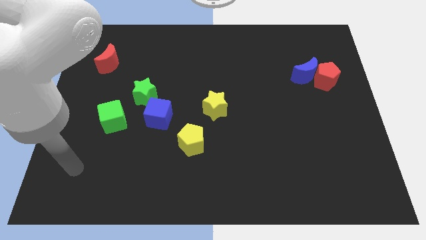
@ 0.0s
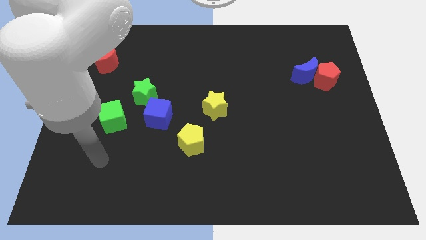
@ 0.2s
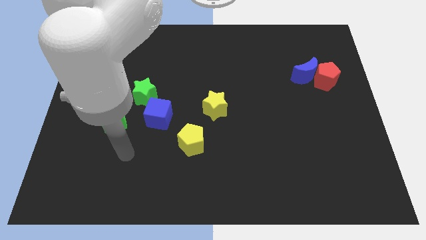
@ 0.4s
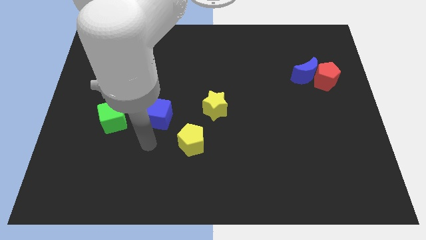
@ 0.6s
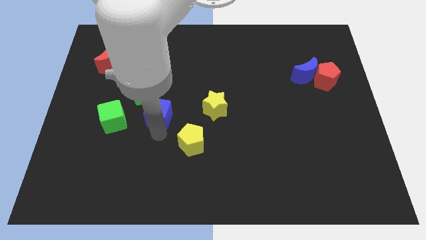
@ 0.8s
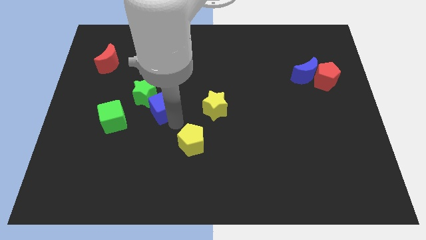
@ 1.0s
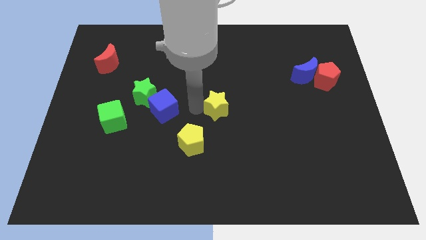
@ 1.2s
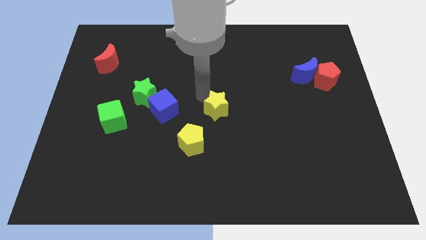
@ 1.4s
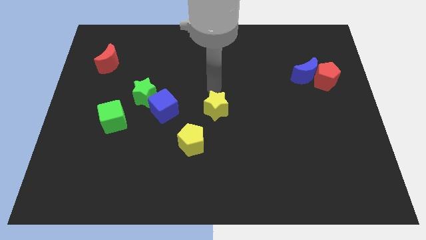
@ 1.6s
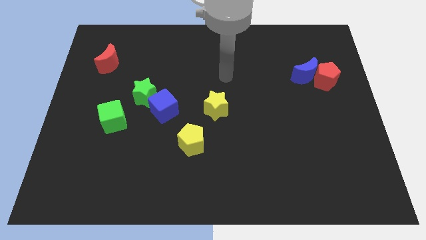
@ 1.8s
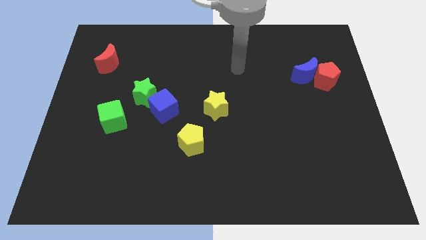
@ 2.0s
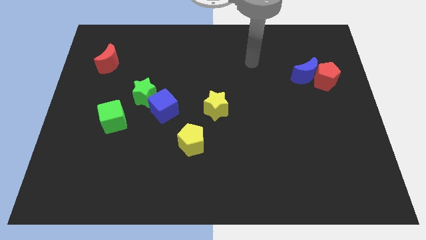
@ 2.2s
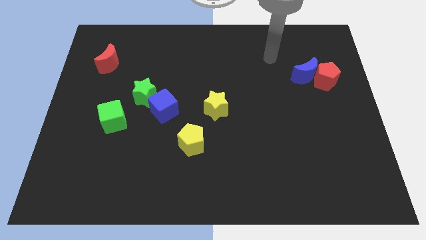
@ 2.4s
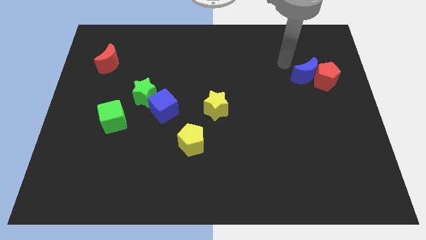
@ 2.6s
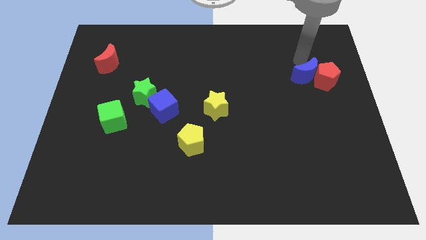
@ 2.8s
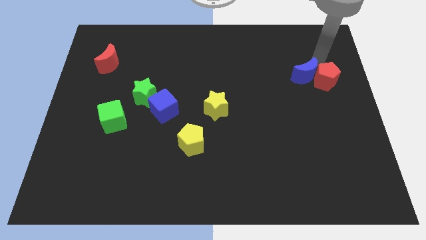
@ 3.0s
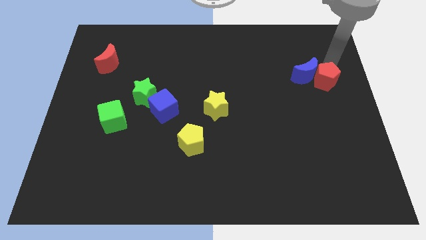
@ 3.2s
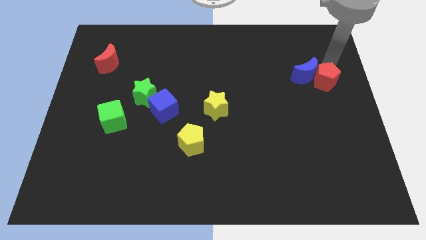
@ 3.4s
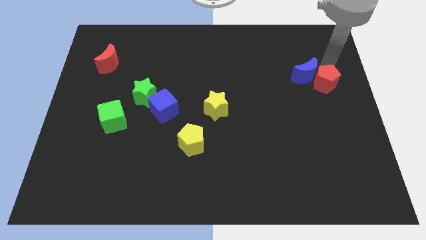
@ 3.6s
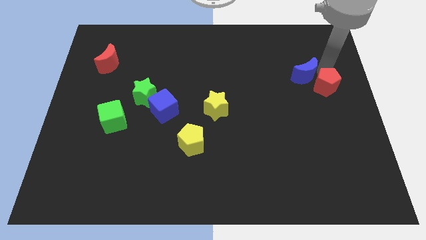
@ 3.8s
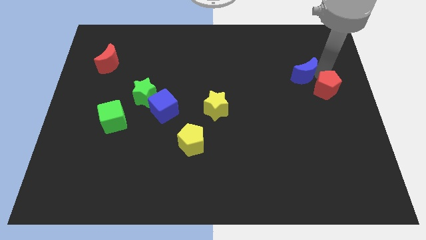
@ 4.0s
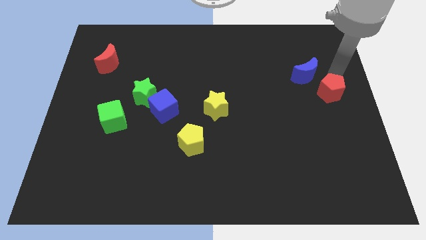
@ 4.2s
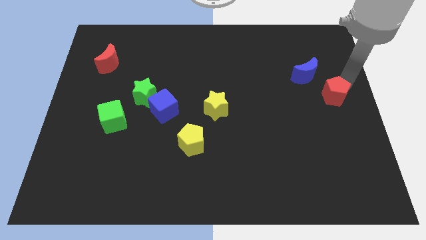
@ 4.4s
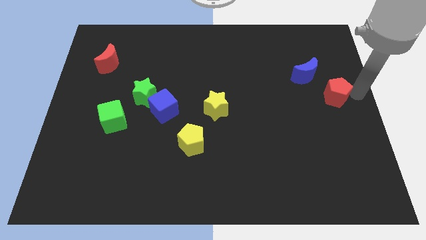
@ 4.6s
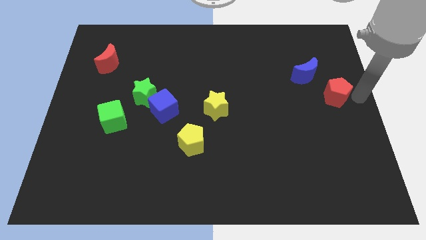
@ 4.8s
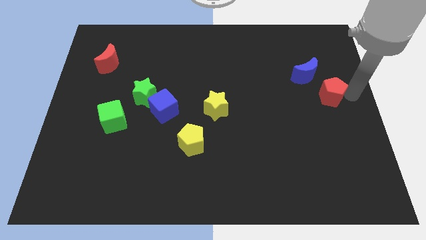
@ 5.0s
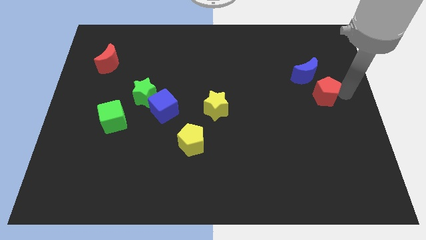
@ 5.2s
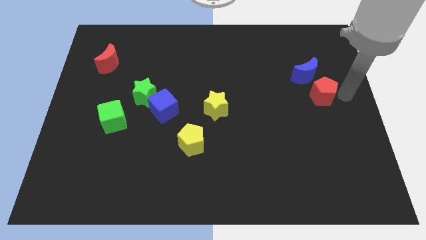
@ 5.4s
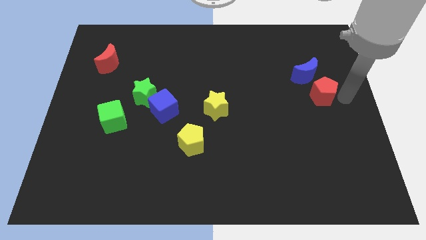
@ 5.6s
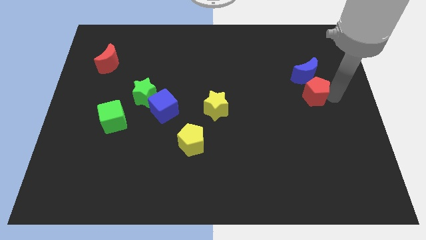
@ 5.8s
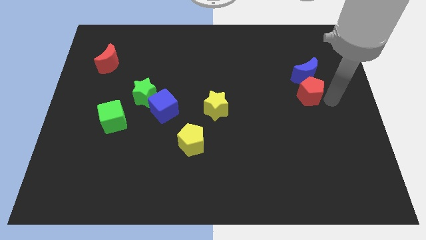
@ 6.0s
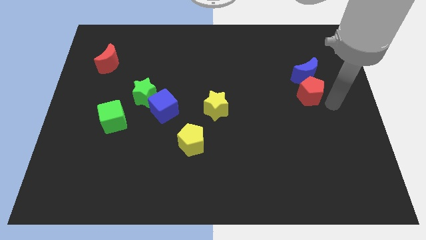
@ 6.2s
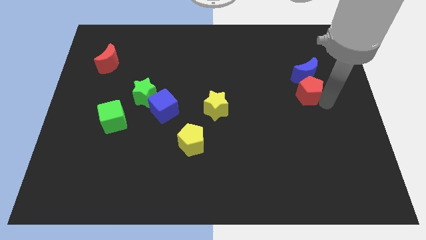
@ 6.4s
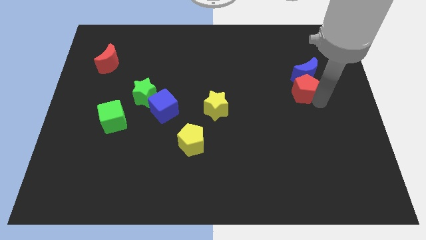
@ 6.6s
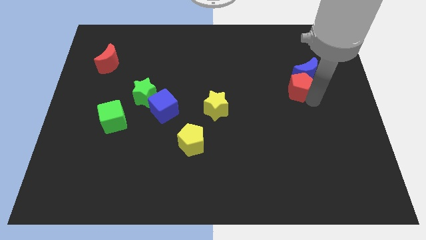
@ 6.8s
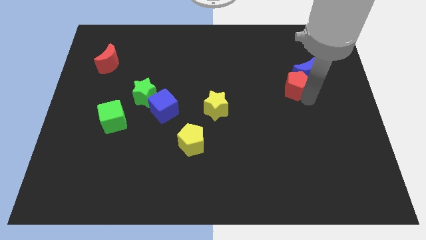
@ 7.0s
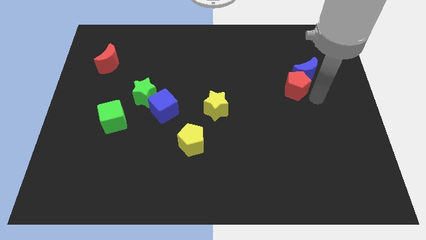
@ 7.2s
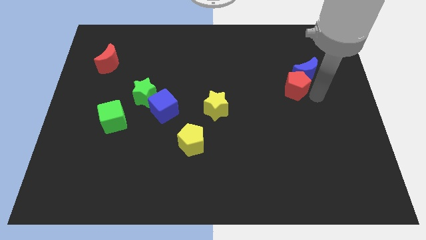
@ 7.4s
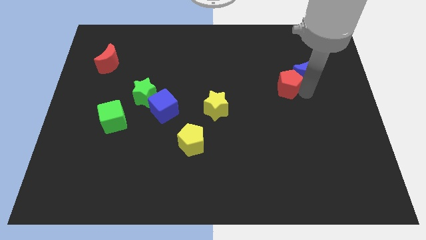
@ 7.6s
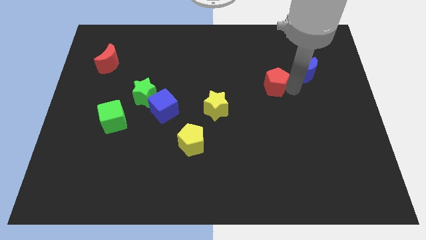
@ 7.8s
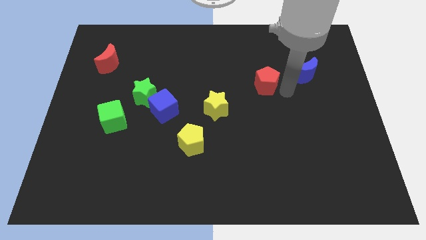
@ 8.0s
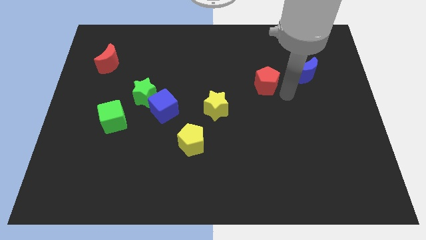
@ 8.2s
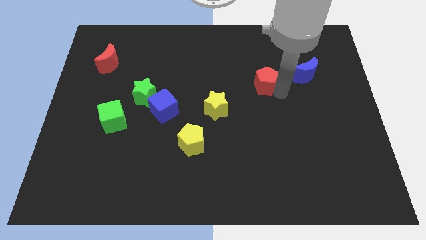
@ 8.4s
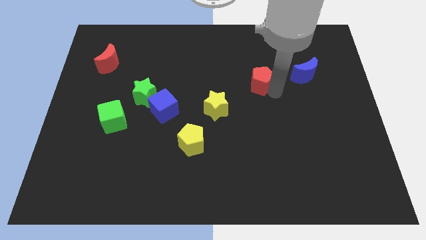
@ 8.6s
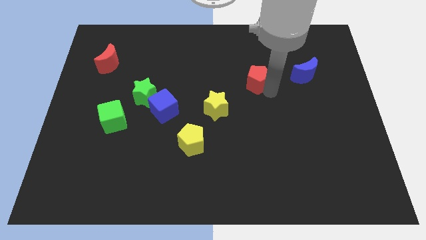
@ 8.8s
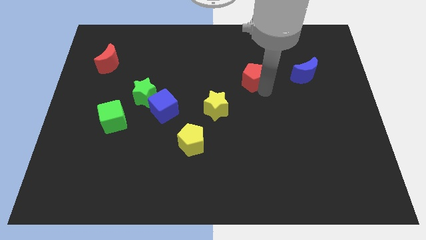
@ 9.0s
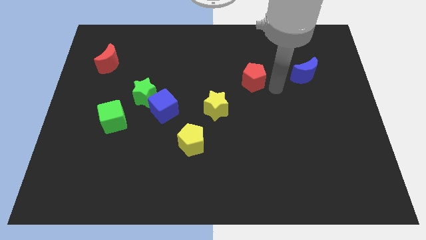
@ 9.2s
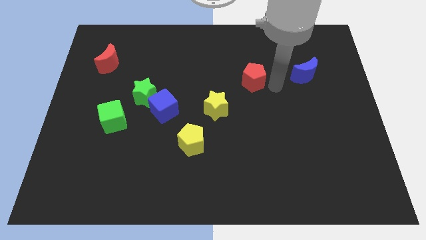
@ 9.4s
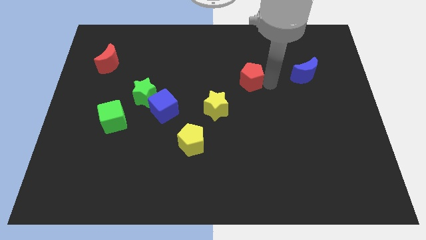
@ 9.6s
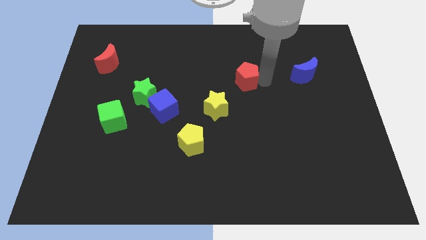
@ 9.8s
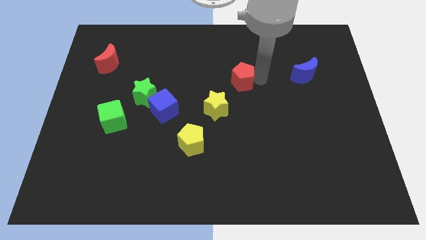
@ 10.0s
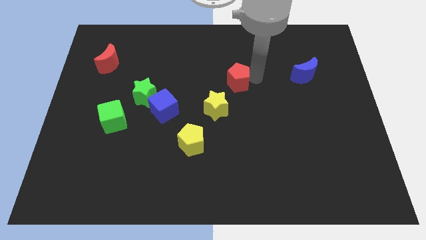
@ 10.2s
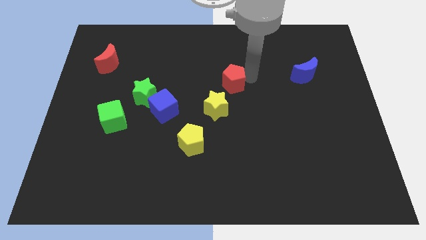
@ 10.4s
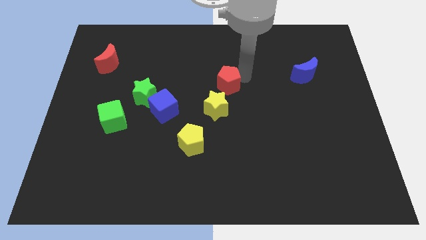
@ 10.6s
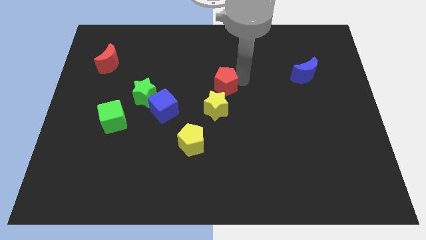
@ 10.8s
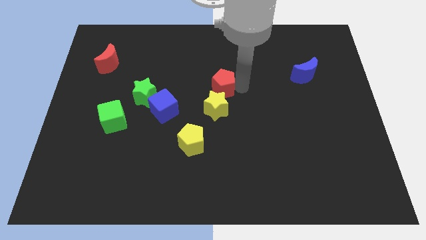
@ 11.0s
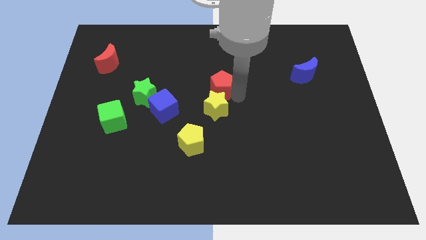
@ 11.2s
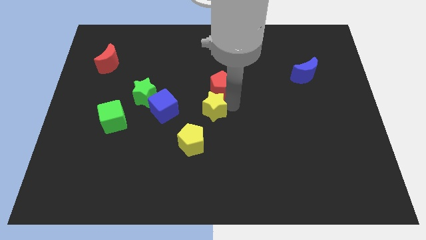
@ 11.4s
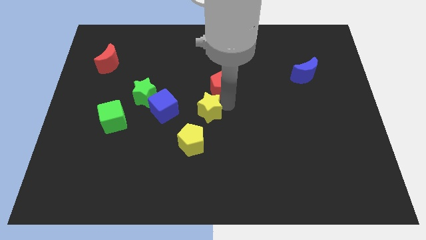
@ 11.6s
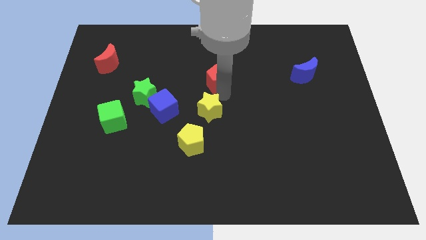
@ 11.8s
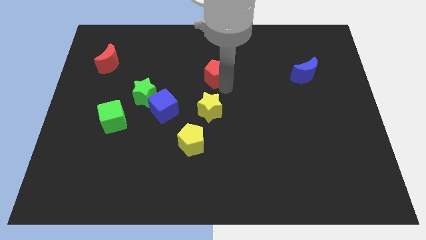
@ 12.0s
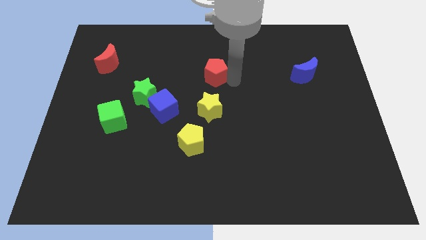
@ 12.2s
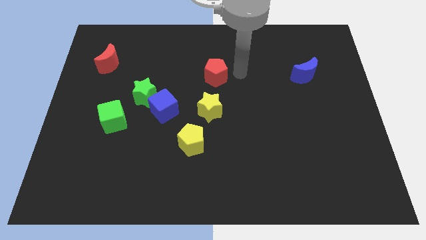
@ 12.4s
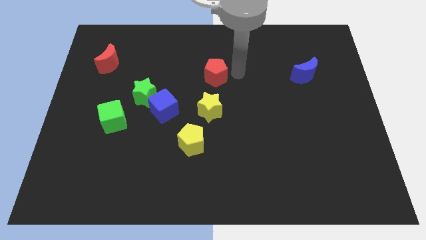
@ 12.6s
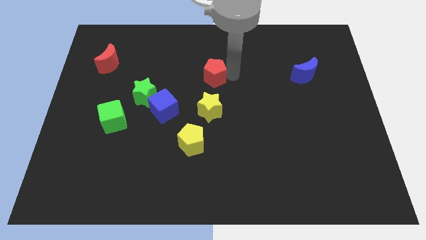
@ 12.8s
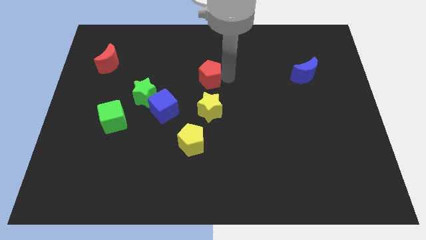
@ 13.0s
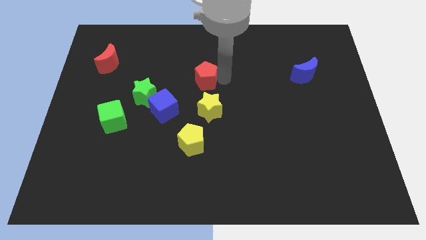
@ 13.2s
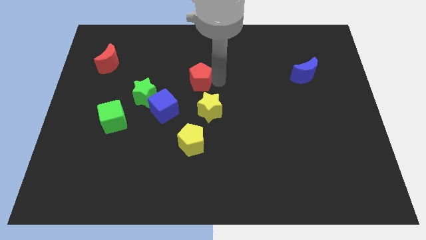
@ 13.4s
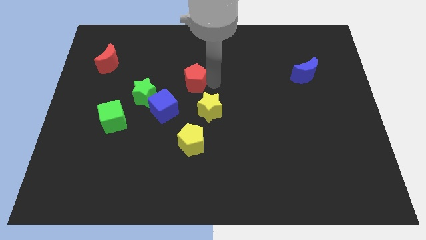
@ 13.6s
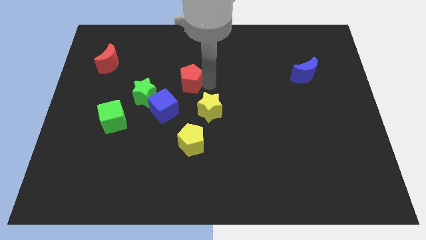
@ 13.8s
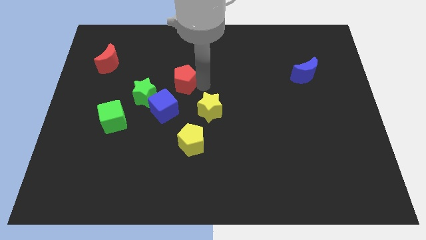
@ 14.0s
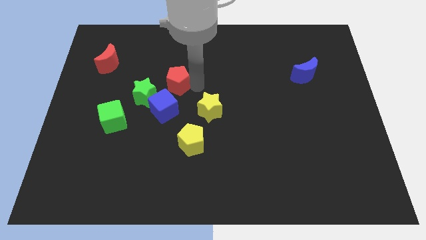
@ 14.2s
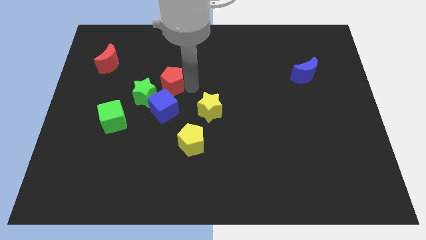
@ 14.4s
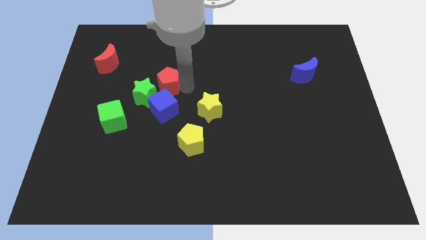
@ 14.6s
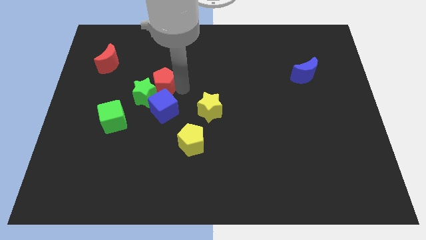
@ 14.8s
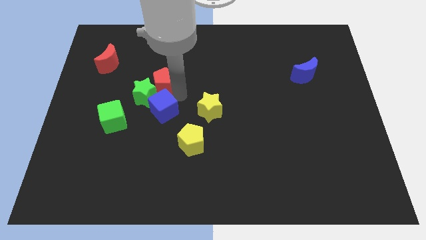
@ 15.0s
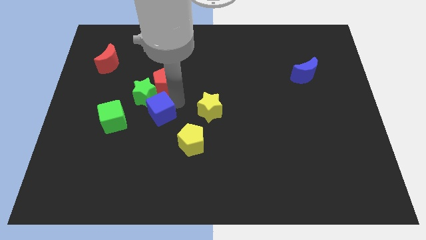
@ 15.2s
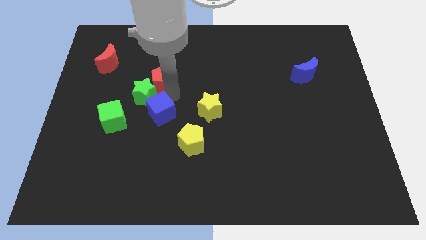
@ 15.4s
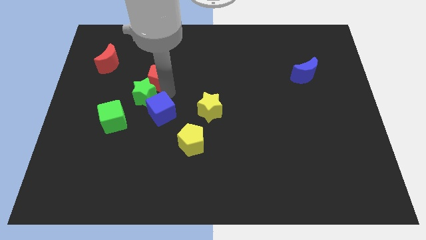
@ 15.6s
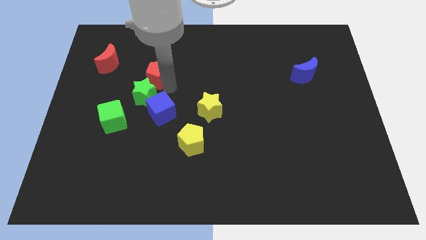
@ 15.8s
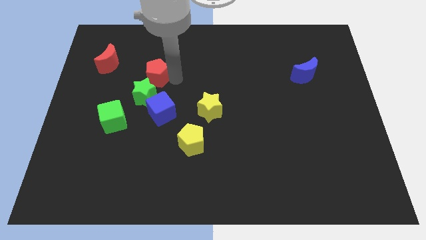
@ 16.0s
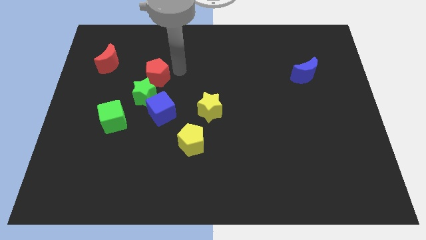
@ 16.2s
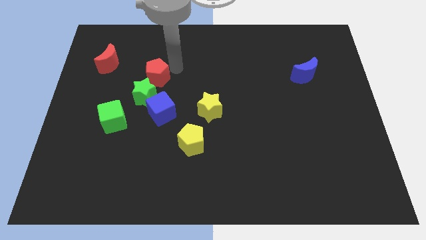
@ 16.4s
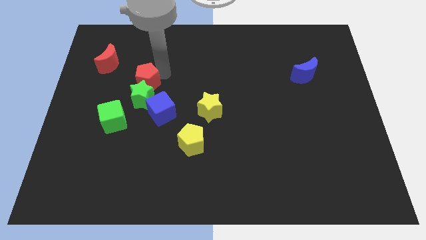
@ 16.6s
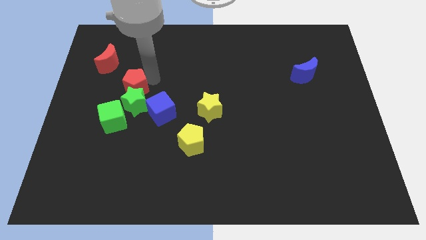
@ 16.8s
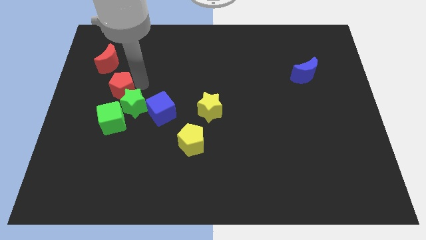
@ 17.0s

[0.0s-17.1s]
push the red pentagon below the red moon
